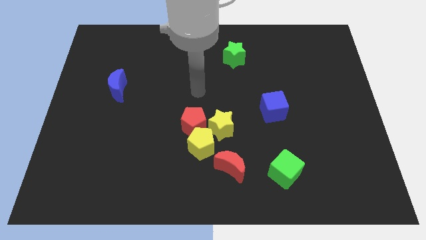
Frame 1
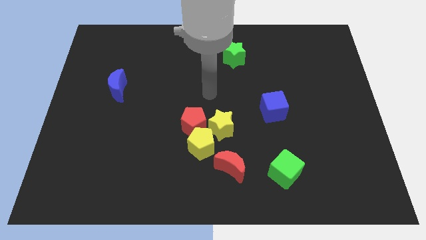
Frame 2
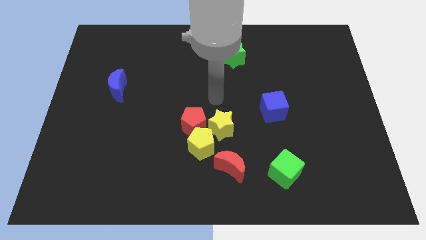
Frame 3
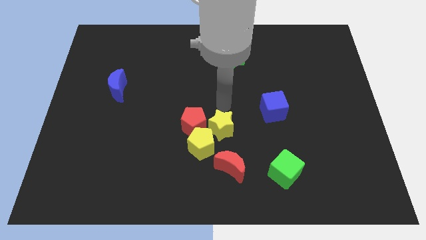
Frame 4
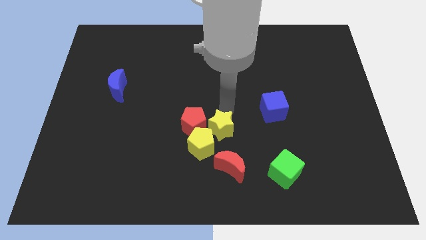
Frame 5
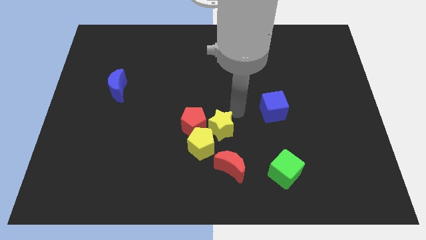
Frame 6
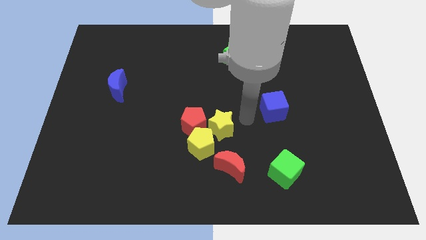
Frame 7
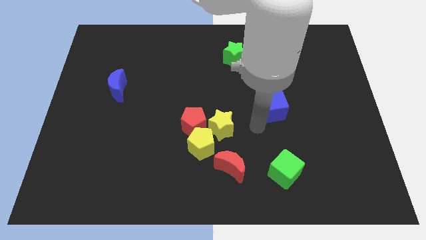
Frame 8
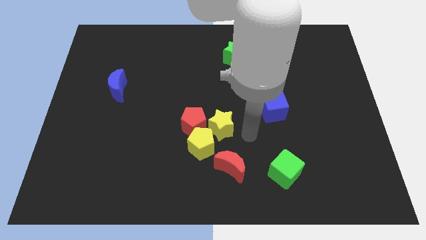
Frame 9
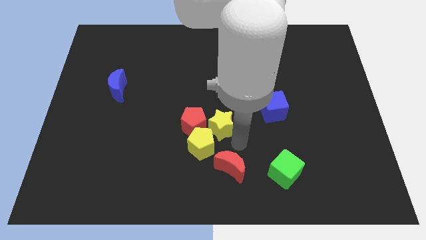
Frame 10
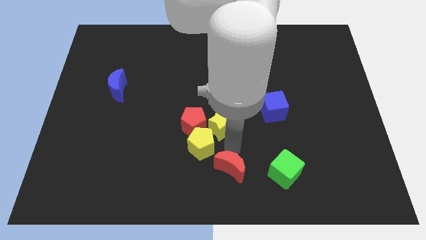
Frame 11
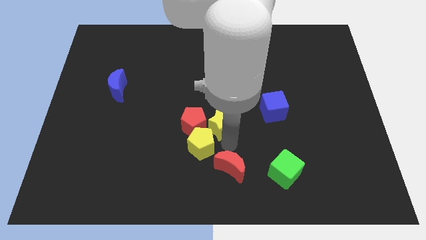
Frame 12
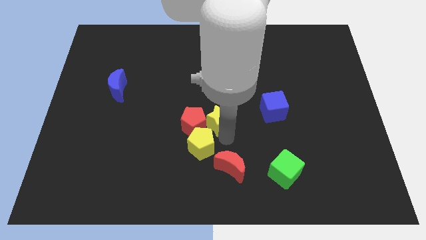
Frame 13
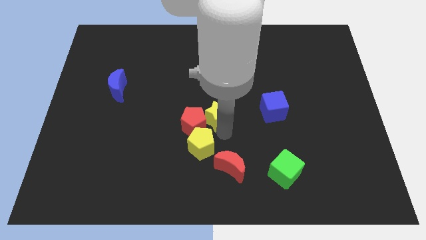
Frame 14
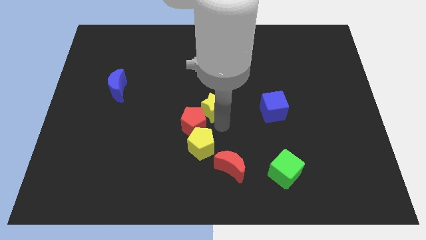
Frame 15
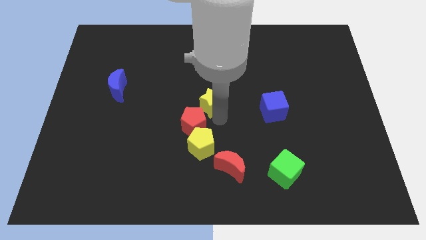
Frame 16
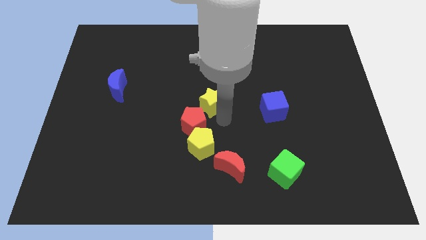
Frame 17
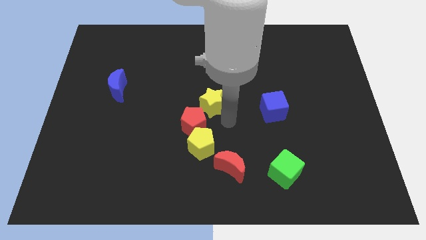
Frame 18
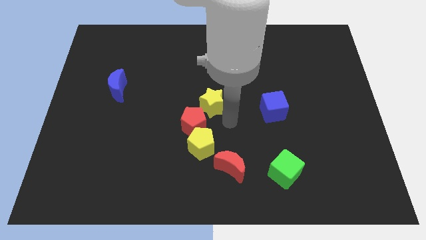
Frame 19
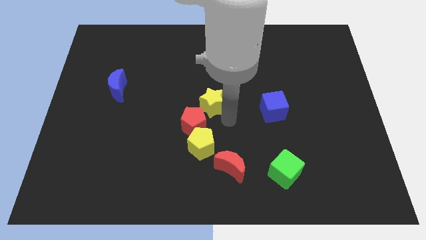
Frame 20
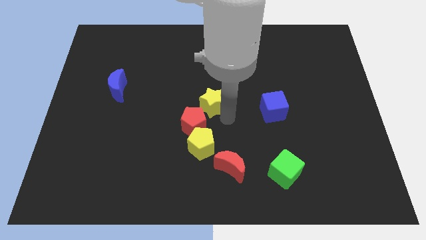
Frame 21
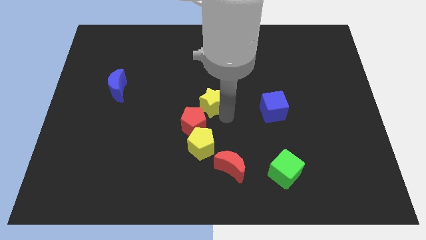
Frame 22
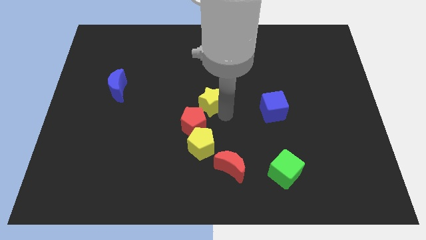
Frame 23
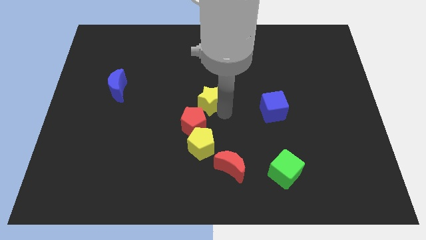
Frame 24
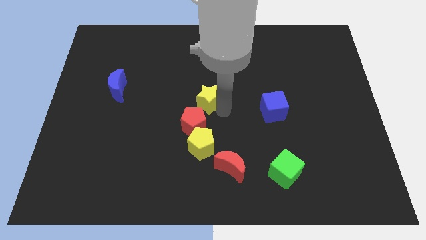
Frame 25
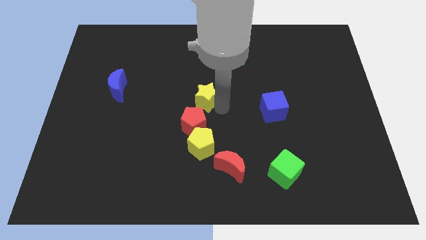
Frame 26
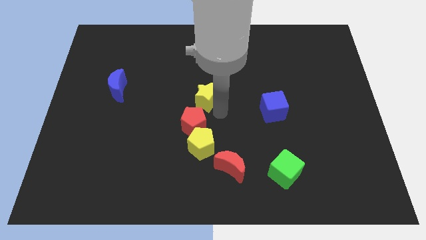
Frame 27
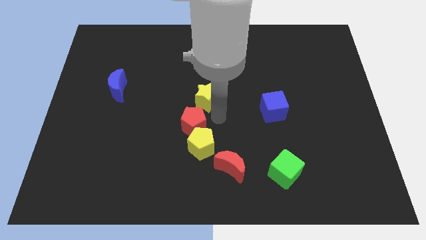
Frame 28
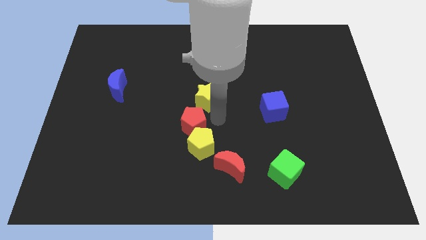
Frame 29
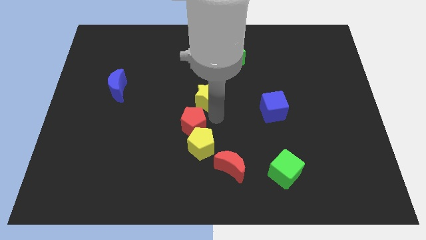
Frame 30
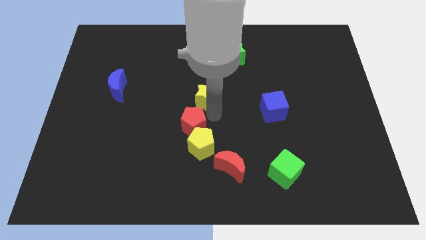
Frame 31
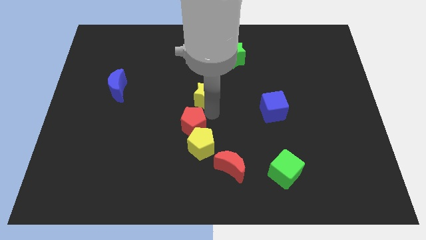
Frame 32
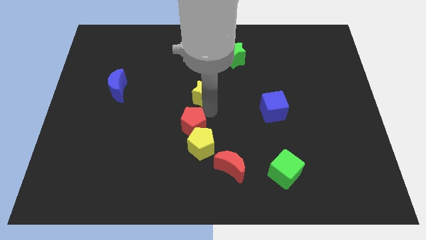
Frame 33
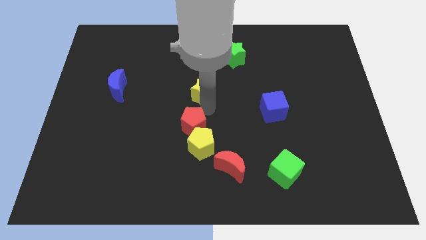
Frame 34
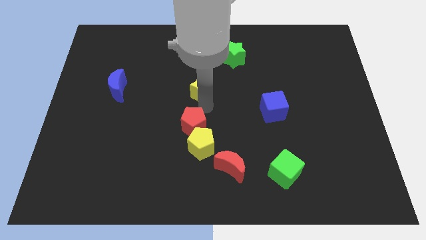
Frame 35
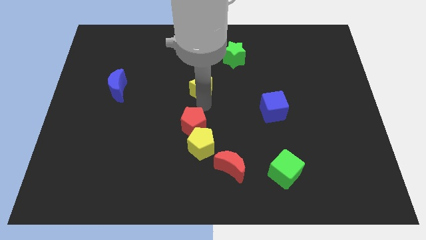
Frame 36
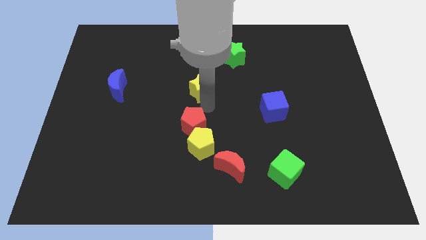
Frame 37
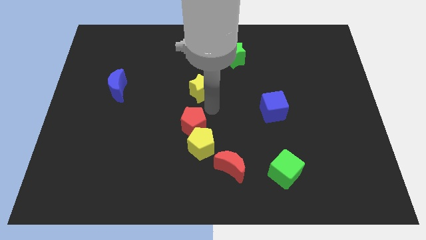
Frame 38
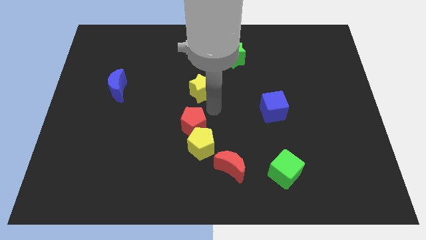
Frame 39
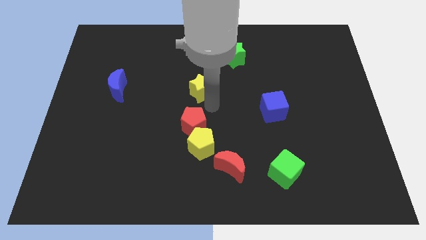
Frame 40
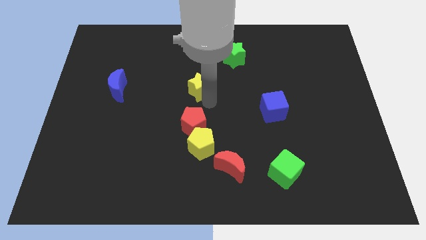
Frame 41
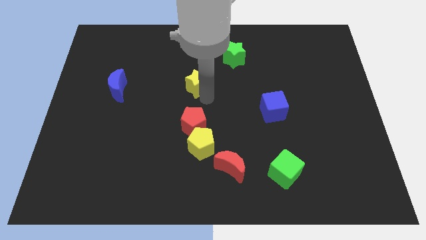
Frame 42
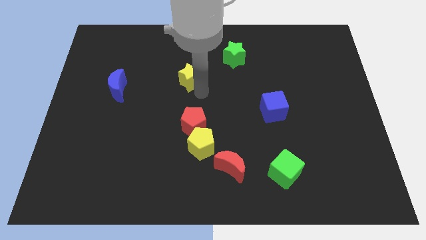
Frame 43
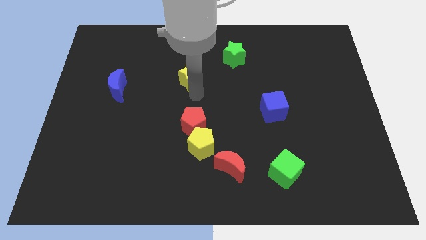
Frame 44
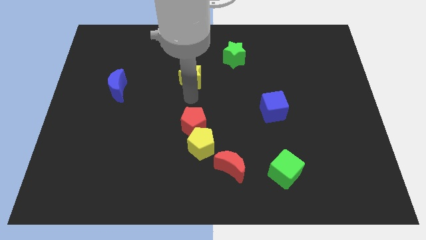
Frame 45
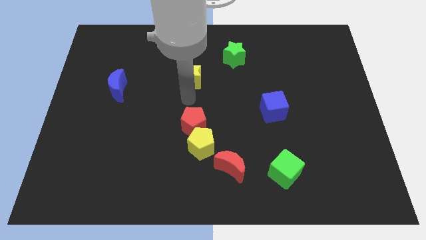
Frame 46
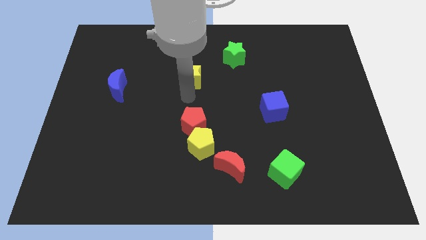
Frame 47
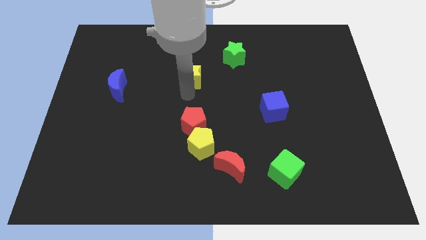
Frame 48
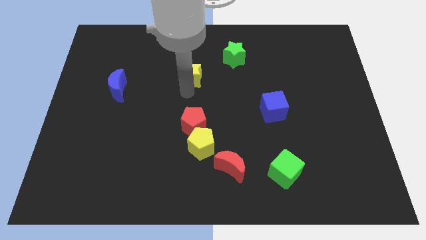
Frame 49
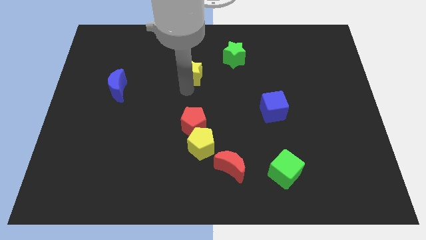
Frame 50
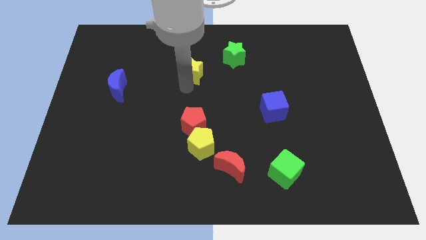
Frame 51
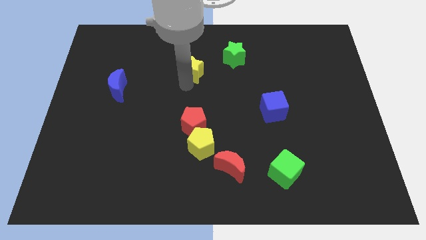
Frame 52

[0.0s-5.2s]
push the yellow star to the left of the green star
